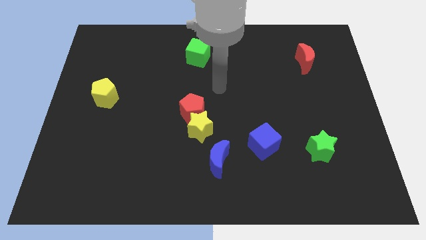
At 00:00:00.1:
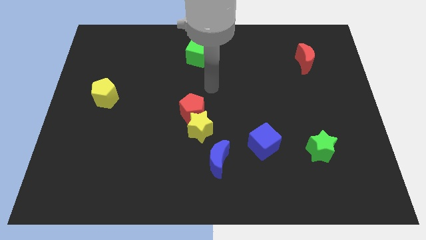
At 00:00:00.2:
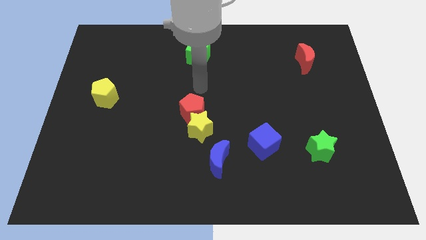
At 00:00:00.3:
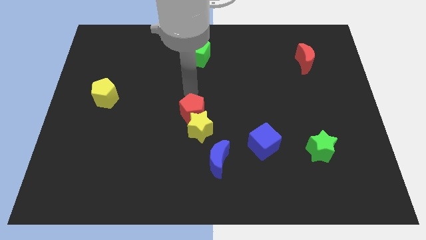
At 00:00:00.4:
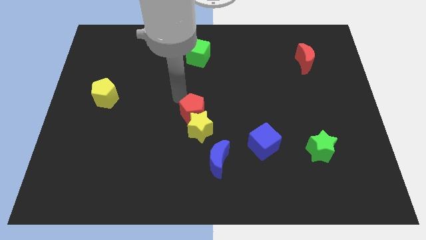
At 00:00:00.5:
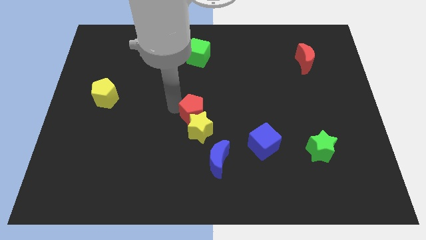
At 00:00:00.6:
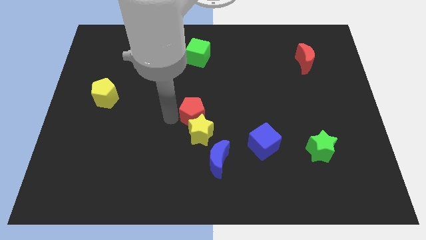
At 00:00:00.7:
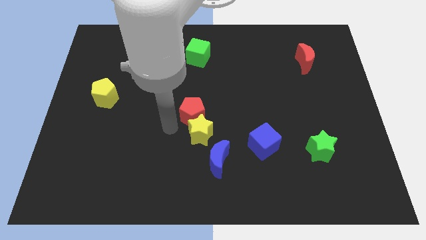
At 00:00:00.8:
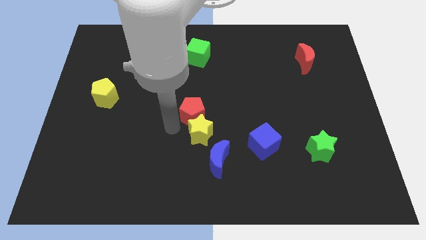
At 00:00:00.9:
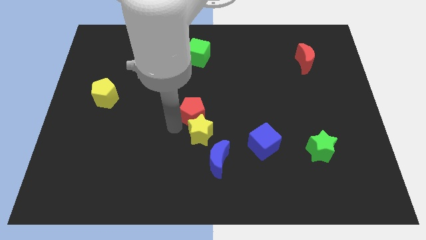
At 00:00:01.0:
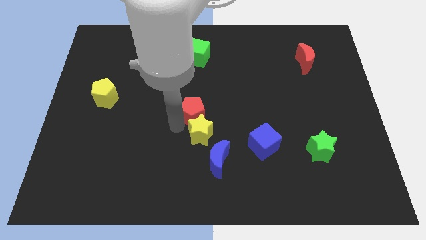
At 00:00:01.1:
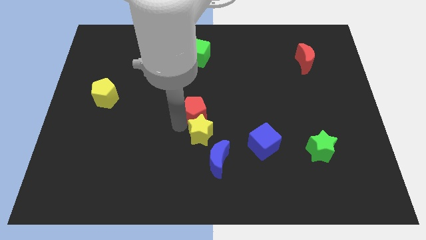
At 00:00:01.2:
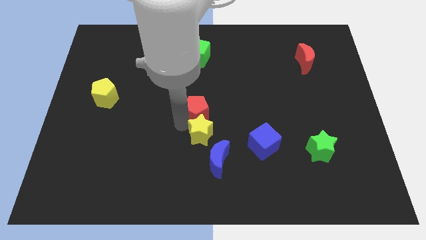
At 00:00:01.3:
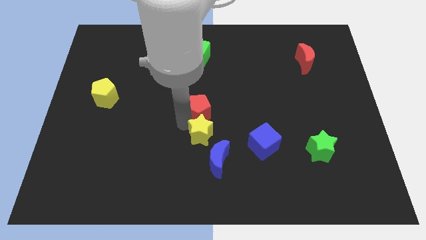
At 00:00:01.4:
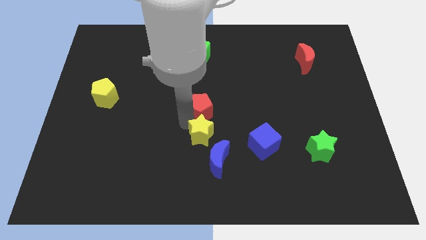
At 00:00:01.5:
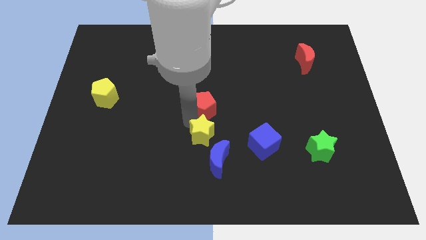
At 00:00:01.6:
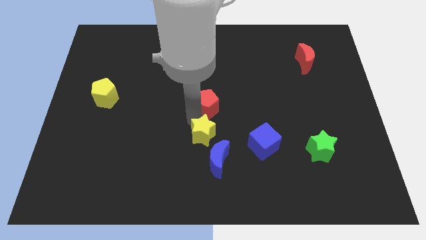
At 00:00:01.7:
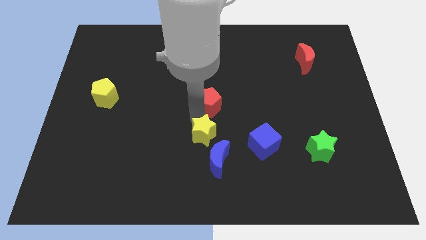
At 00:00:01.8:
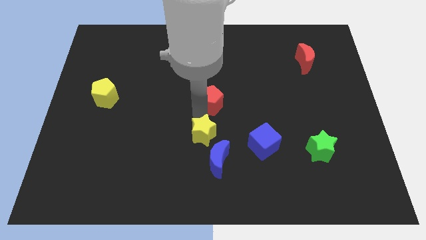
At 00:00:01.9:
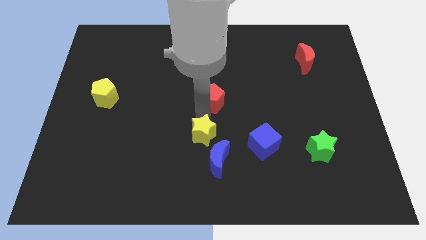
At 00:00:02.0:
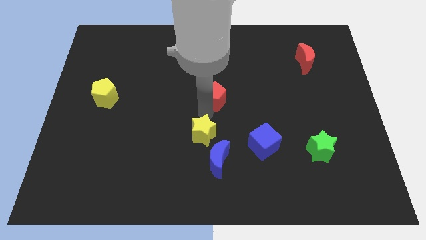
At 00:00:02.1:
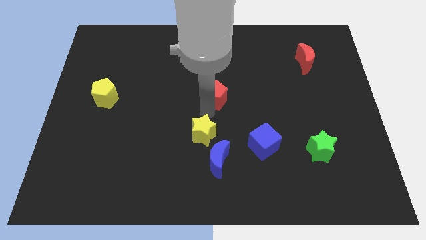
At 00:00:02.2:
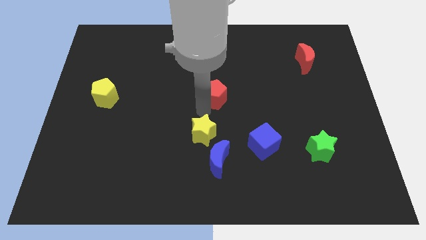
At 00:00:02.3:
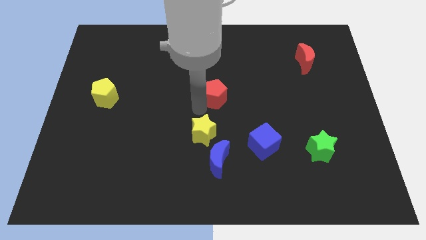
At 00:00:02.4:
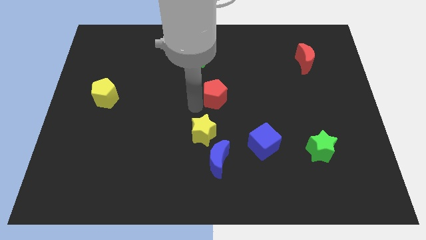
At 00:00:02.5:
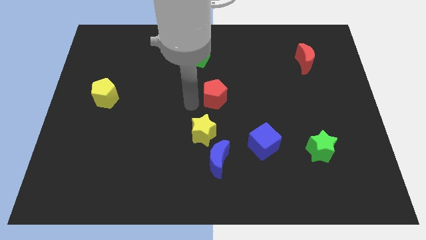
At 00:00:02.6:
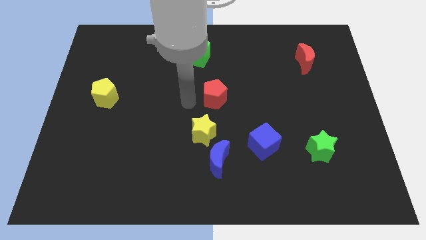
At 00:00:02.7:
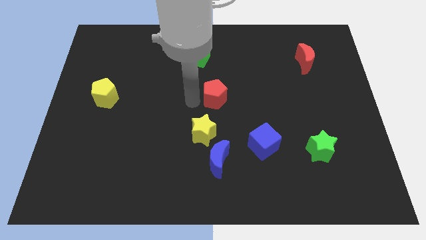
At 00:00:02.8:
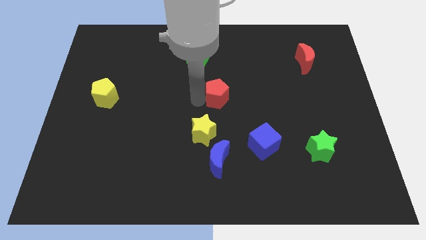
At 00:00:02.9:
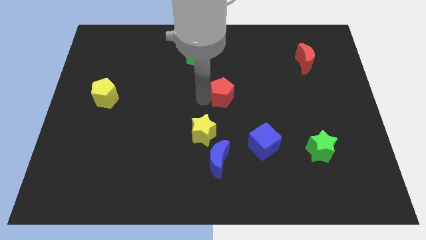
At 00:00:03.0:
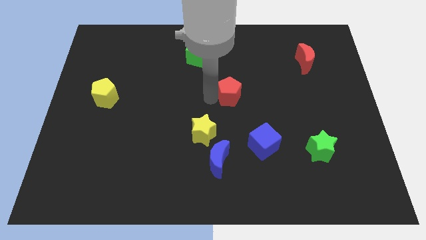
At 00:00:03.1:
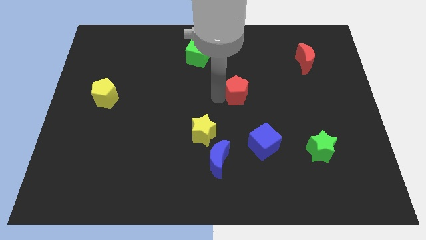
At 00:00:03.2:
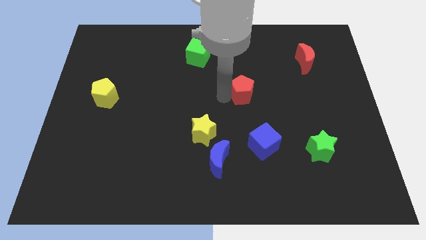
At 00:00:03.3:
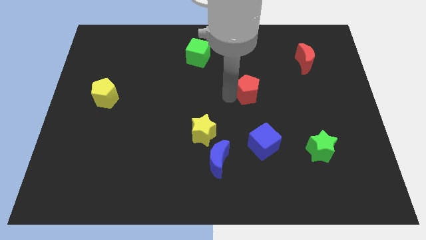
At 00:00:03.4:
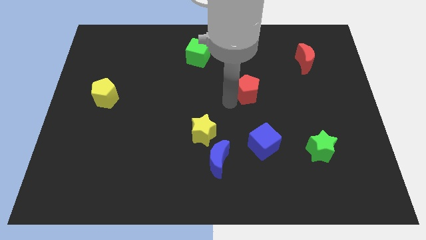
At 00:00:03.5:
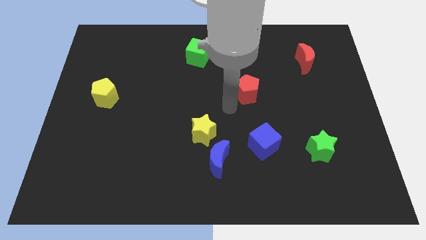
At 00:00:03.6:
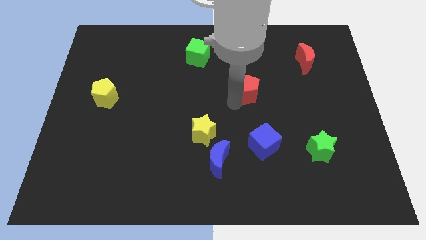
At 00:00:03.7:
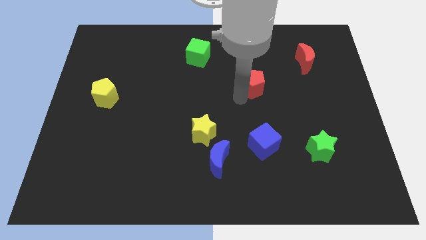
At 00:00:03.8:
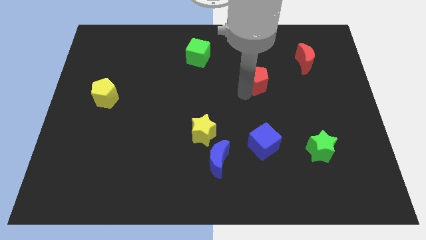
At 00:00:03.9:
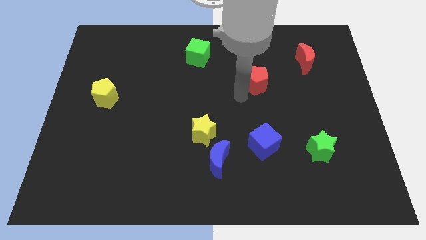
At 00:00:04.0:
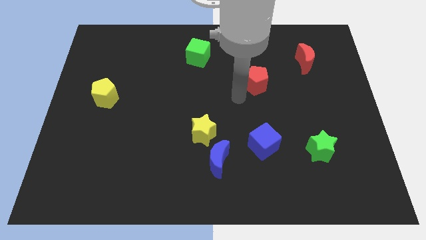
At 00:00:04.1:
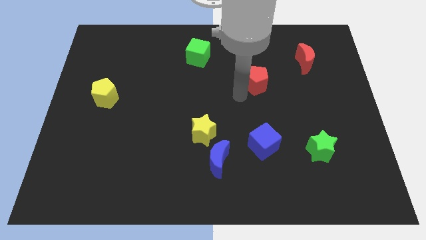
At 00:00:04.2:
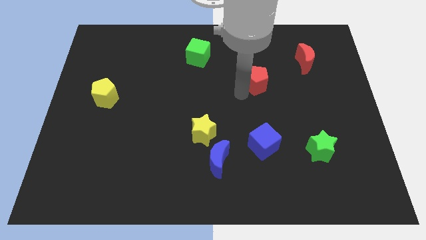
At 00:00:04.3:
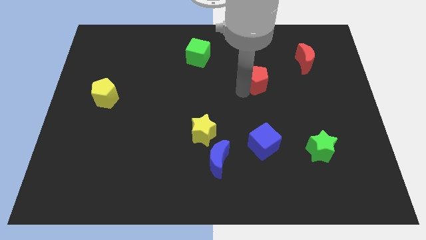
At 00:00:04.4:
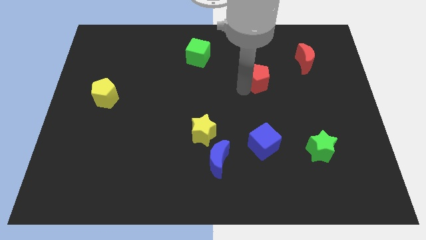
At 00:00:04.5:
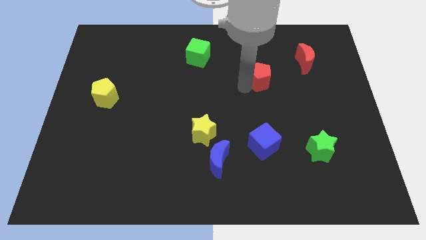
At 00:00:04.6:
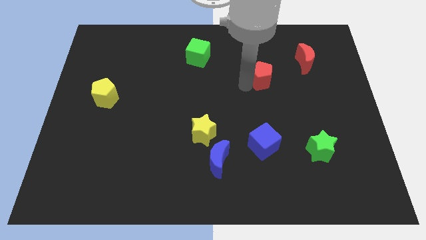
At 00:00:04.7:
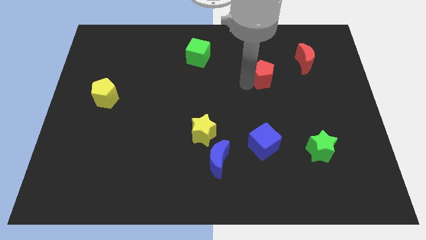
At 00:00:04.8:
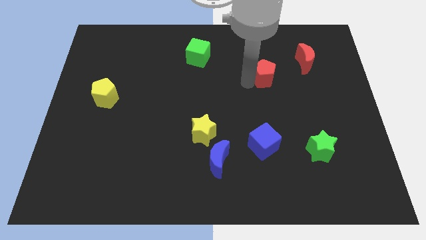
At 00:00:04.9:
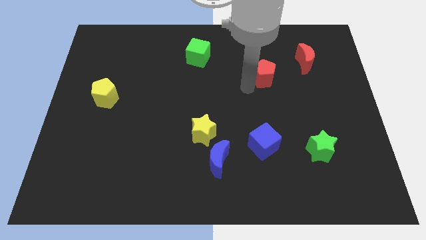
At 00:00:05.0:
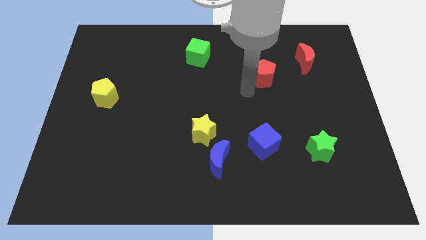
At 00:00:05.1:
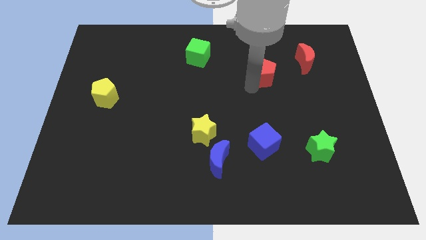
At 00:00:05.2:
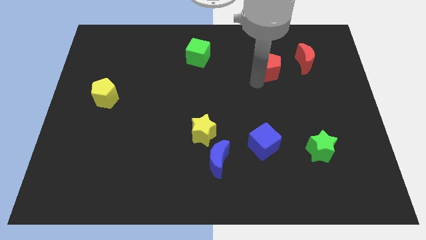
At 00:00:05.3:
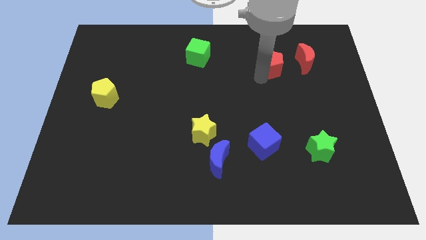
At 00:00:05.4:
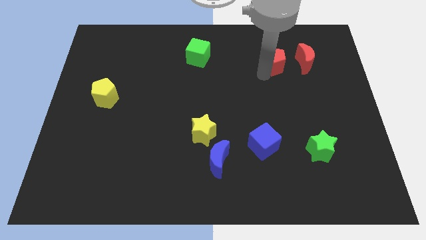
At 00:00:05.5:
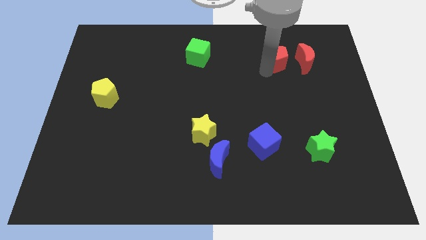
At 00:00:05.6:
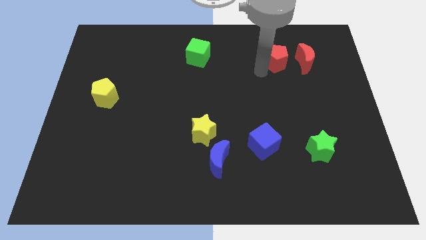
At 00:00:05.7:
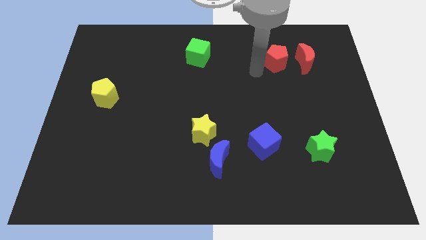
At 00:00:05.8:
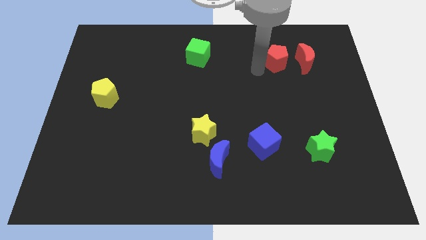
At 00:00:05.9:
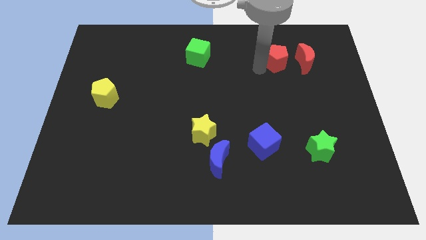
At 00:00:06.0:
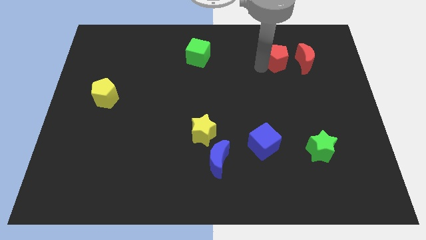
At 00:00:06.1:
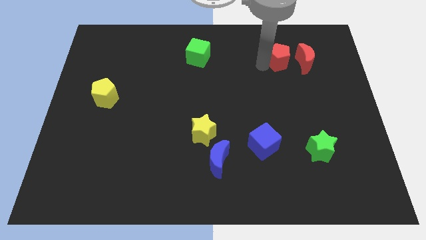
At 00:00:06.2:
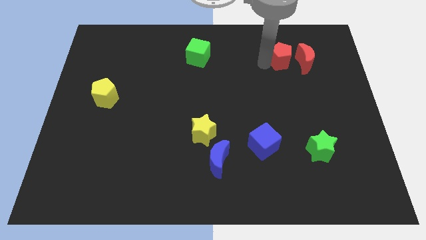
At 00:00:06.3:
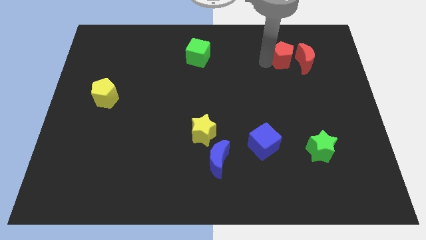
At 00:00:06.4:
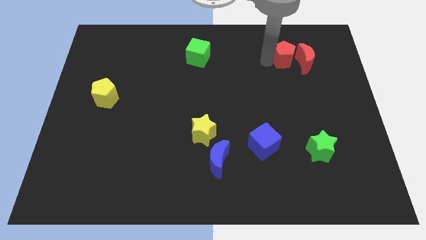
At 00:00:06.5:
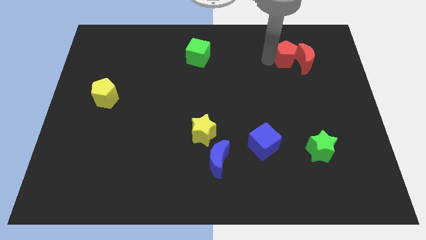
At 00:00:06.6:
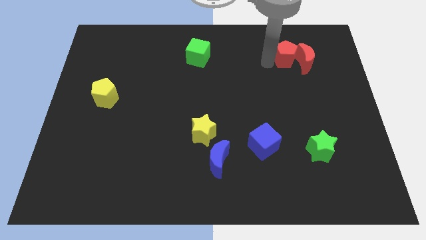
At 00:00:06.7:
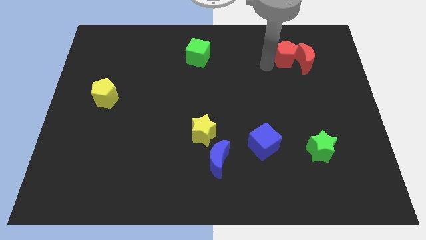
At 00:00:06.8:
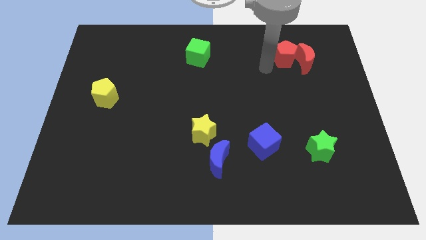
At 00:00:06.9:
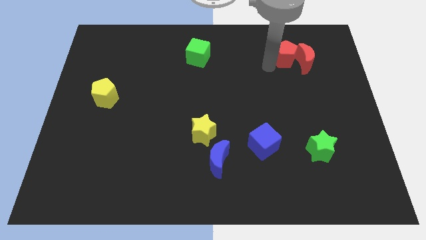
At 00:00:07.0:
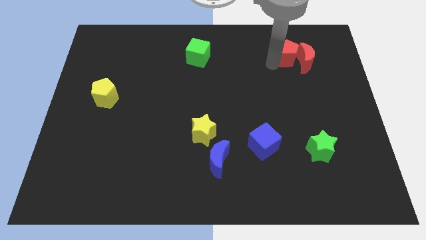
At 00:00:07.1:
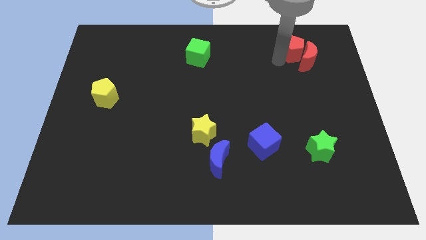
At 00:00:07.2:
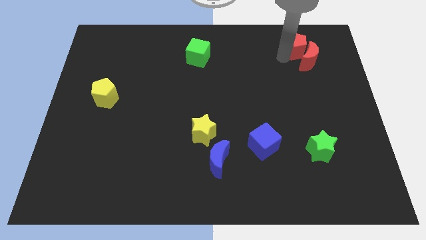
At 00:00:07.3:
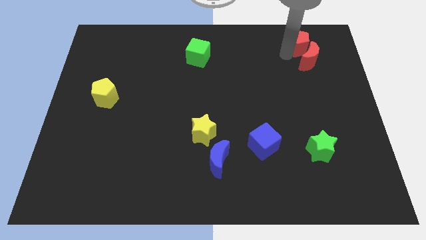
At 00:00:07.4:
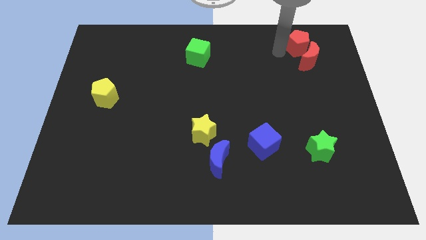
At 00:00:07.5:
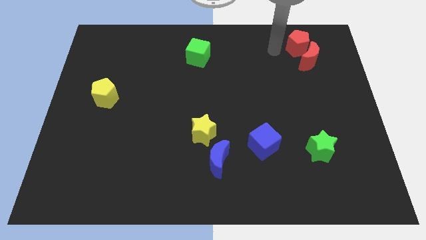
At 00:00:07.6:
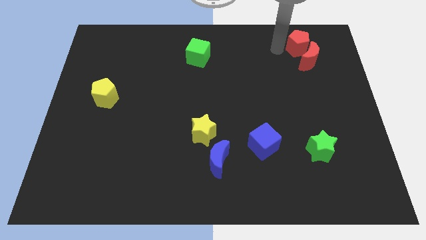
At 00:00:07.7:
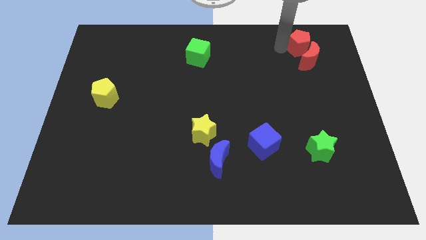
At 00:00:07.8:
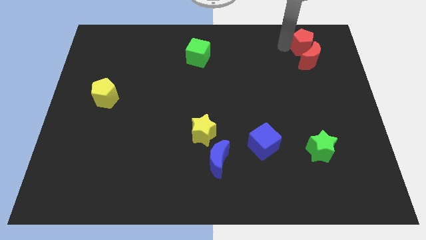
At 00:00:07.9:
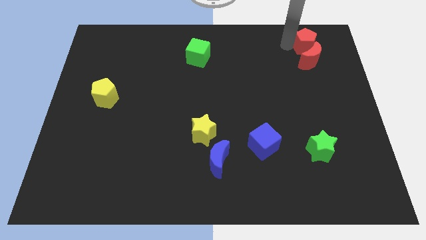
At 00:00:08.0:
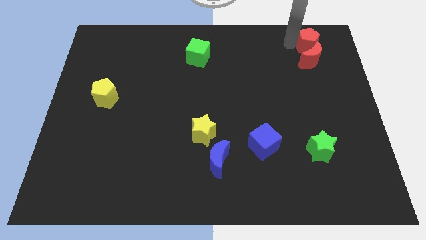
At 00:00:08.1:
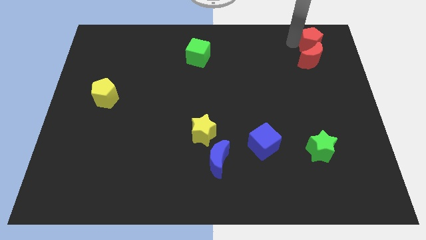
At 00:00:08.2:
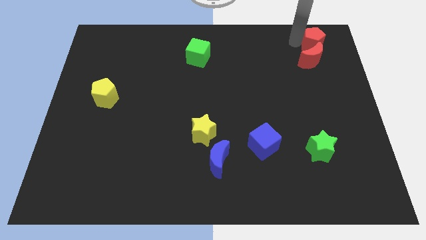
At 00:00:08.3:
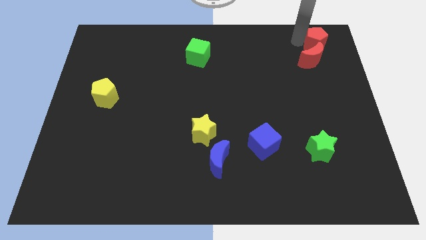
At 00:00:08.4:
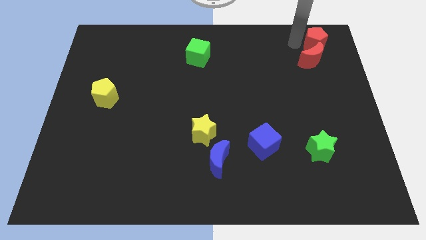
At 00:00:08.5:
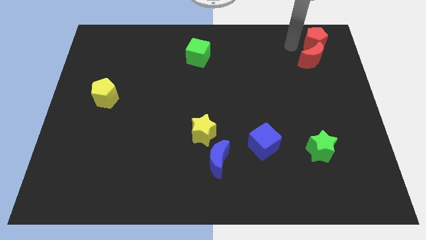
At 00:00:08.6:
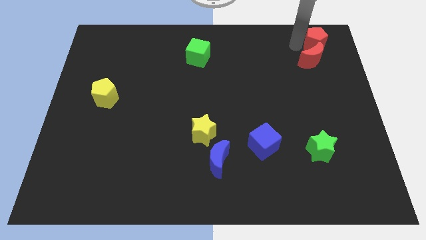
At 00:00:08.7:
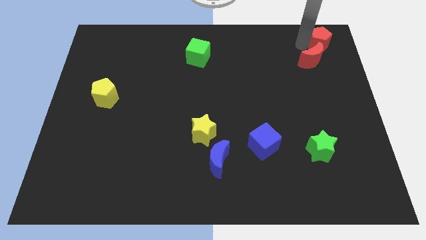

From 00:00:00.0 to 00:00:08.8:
move the red pentagon to the top right of the board
